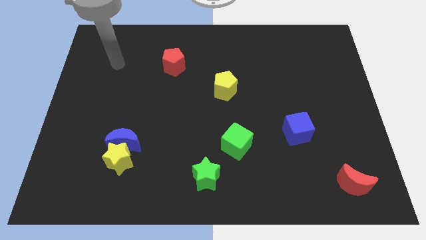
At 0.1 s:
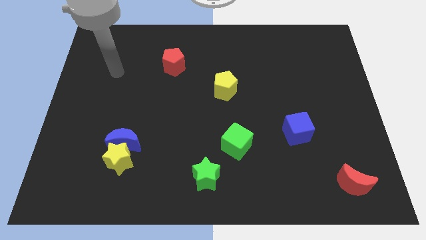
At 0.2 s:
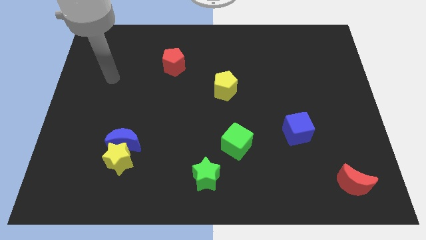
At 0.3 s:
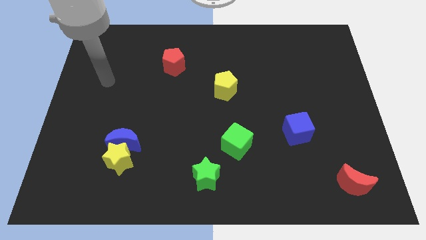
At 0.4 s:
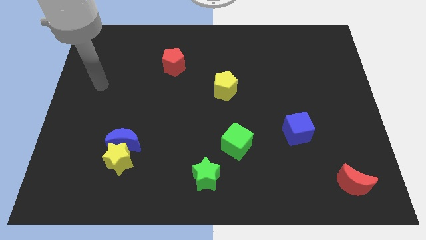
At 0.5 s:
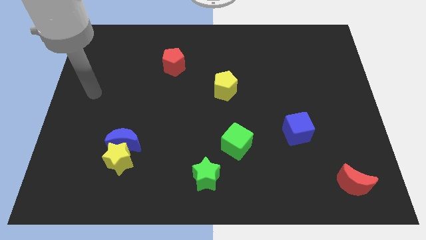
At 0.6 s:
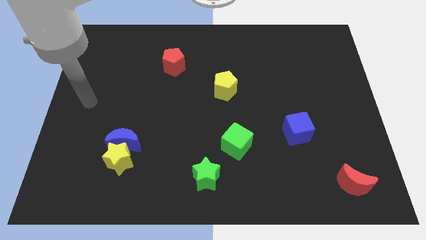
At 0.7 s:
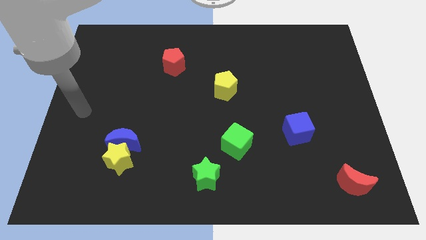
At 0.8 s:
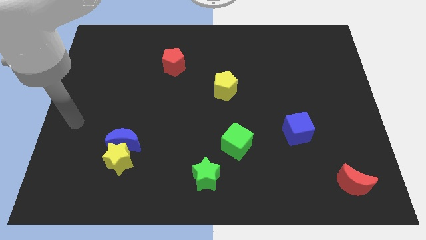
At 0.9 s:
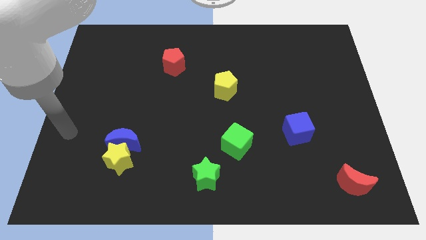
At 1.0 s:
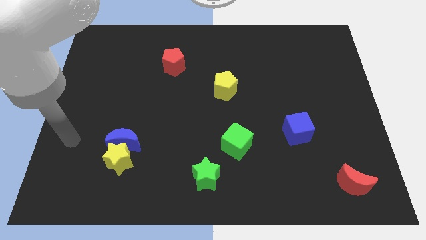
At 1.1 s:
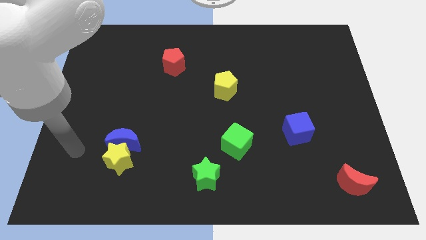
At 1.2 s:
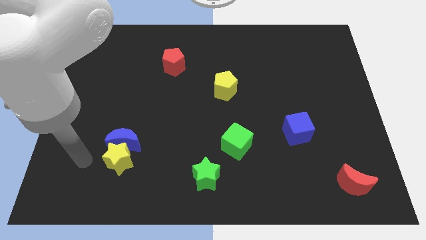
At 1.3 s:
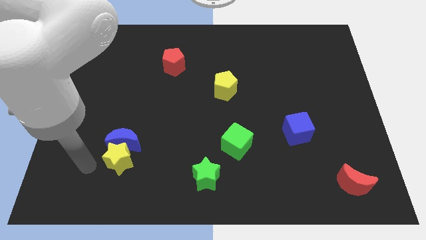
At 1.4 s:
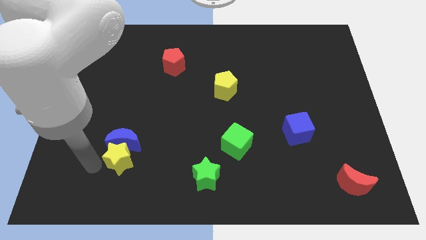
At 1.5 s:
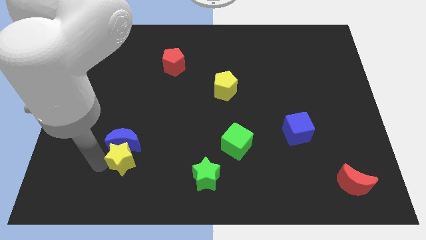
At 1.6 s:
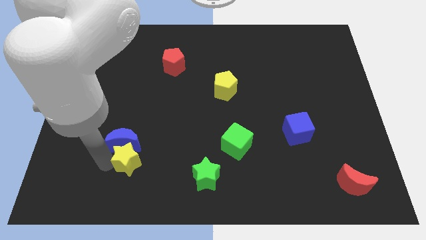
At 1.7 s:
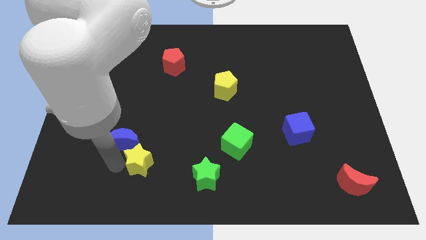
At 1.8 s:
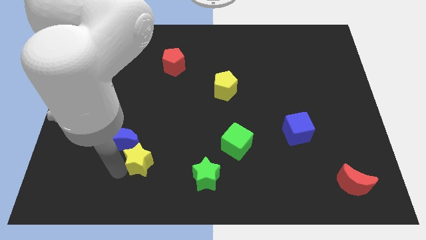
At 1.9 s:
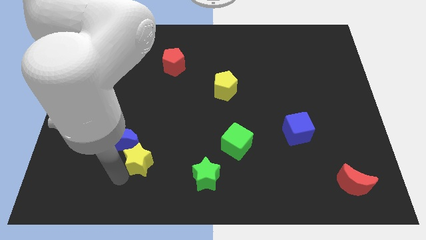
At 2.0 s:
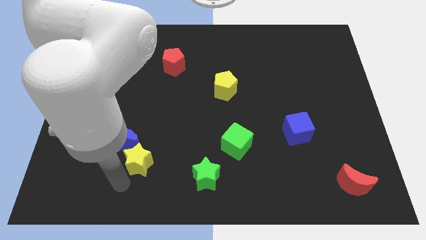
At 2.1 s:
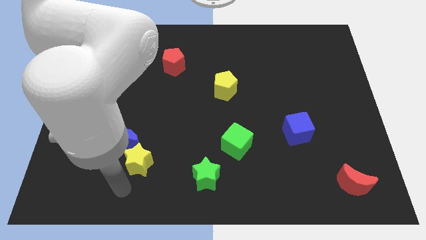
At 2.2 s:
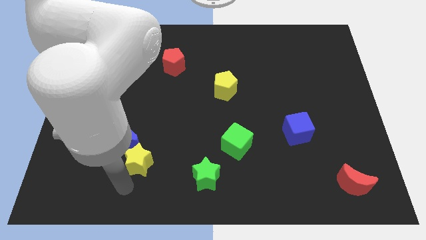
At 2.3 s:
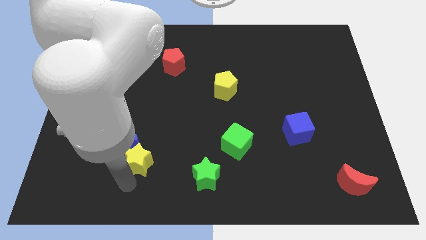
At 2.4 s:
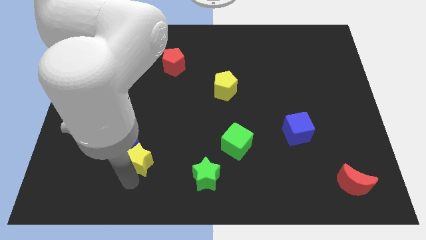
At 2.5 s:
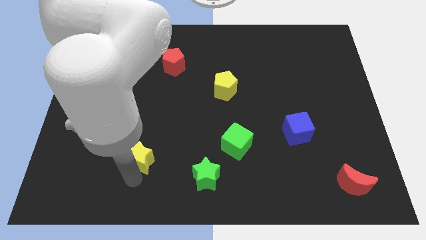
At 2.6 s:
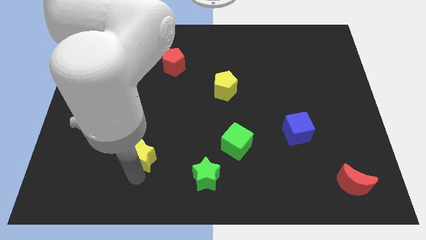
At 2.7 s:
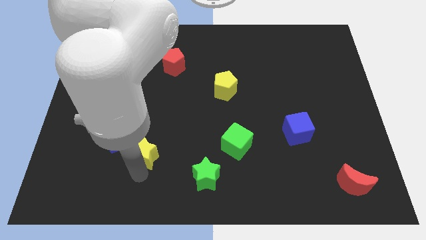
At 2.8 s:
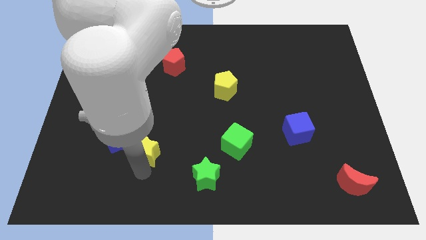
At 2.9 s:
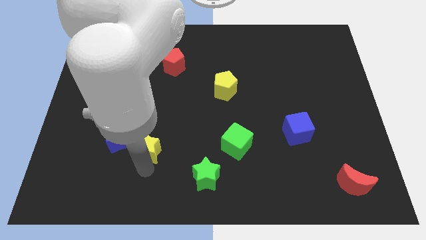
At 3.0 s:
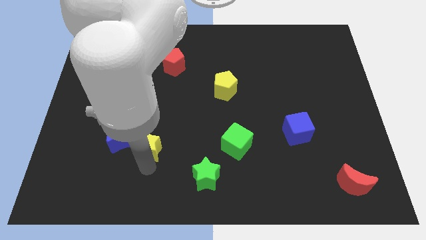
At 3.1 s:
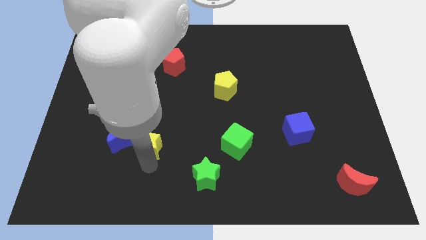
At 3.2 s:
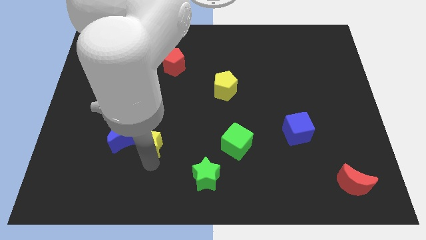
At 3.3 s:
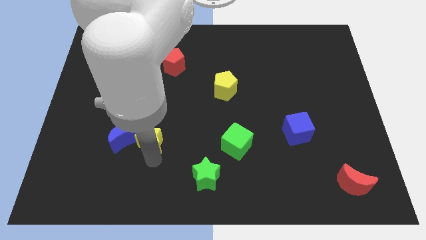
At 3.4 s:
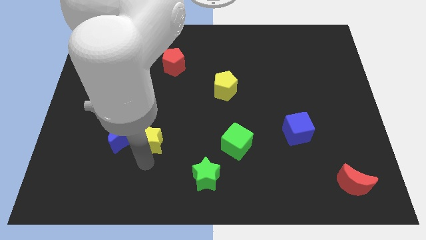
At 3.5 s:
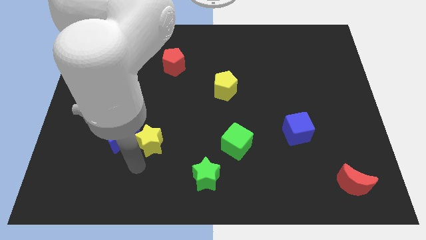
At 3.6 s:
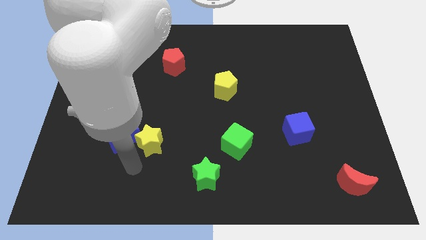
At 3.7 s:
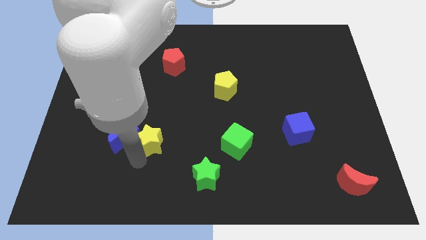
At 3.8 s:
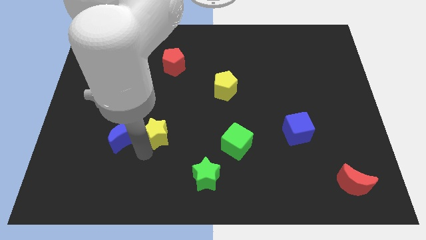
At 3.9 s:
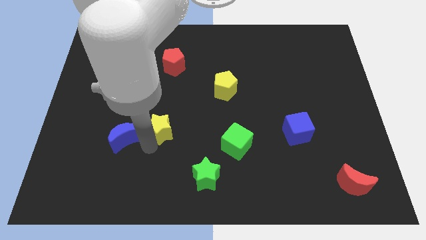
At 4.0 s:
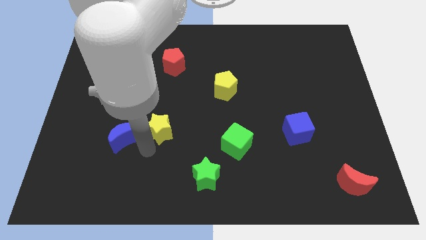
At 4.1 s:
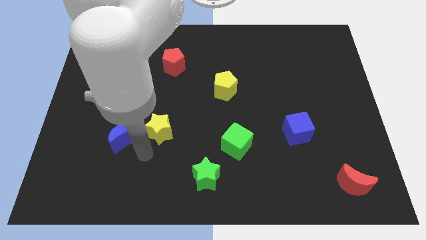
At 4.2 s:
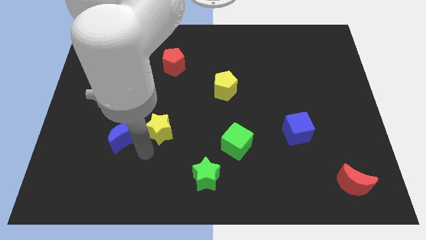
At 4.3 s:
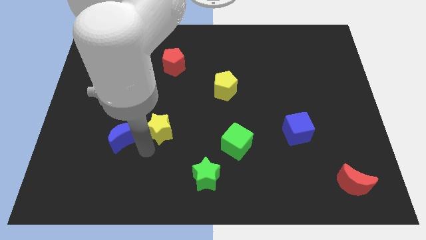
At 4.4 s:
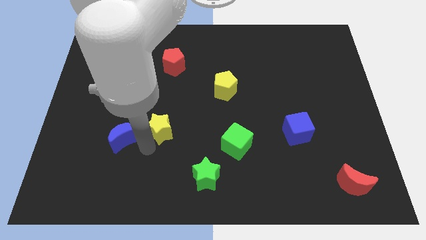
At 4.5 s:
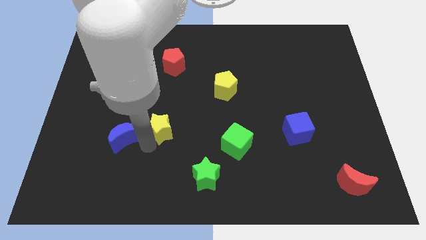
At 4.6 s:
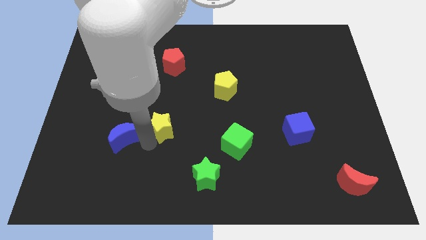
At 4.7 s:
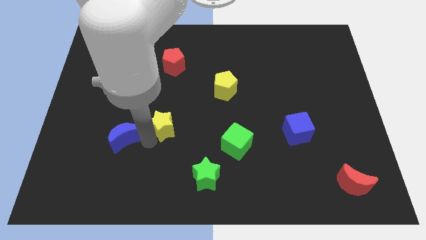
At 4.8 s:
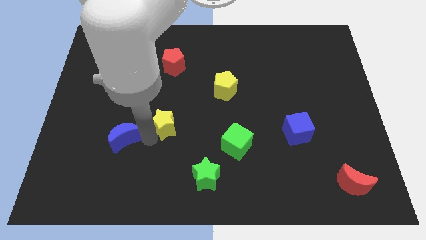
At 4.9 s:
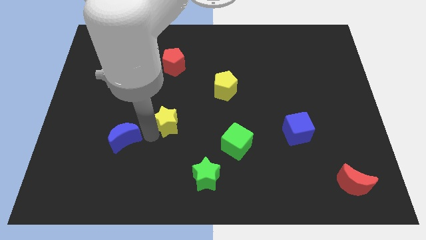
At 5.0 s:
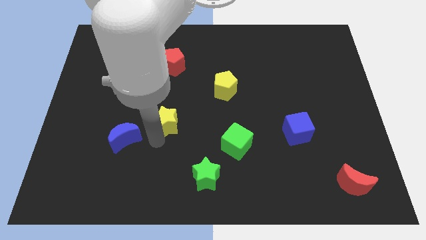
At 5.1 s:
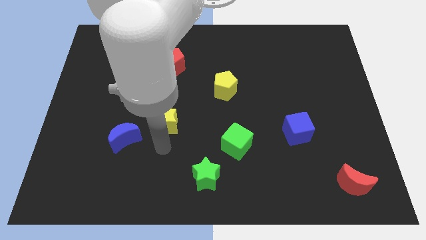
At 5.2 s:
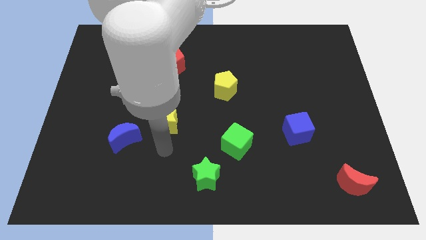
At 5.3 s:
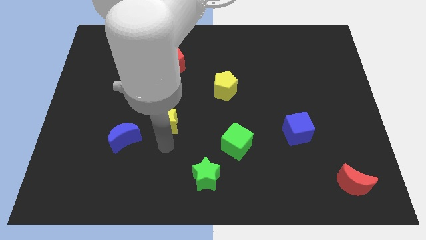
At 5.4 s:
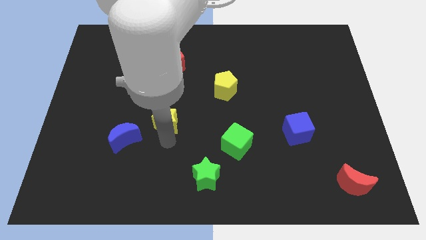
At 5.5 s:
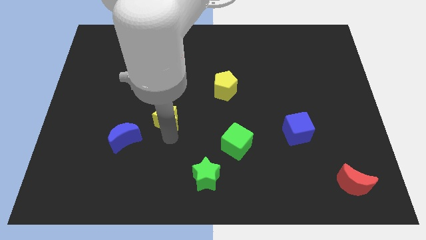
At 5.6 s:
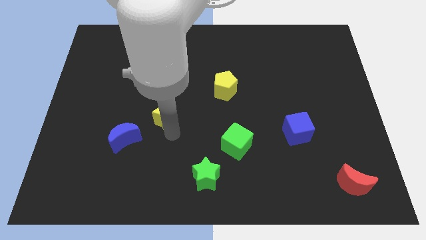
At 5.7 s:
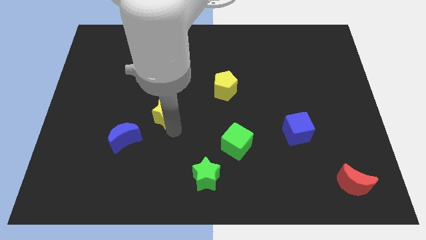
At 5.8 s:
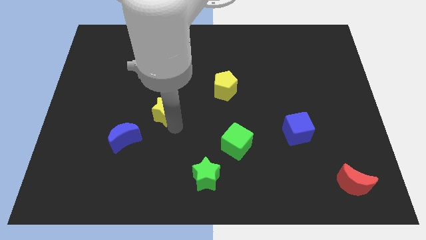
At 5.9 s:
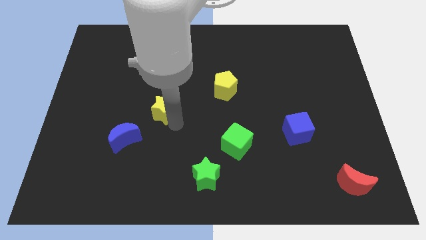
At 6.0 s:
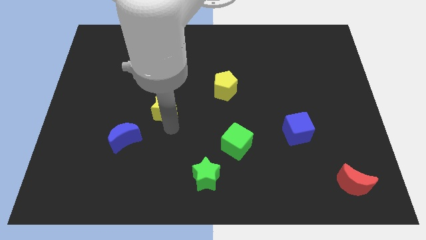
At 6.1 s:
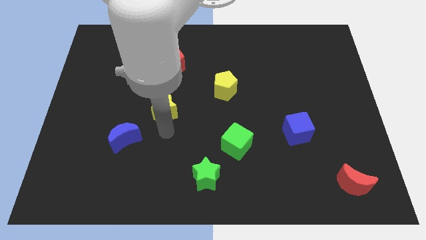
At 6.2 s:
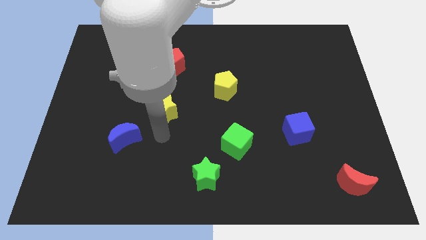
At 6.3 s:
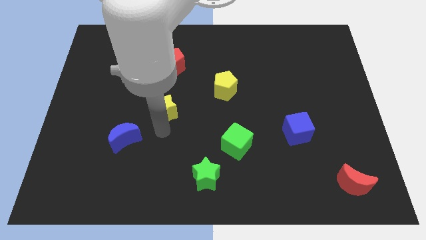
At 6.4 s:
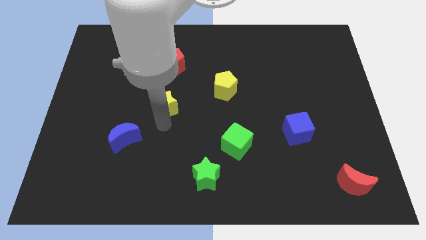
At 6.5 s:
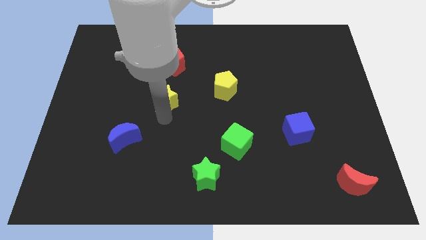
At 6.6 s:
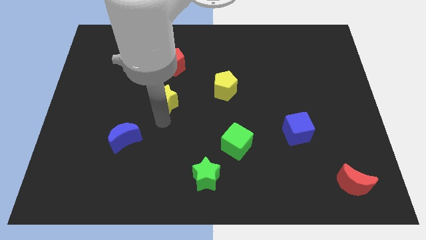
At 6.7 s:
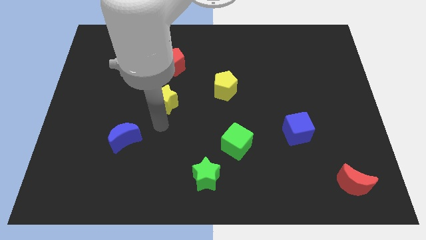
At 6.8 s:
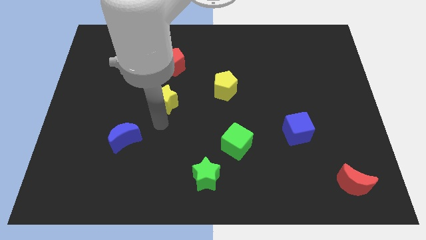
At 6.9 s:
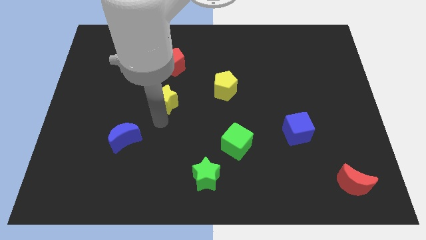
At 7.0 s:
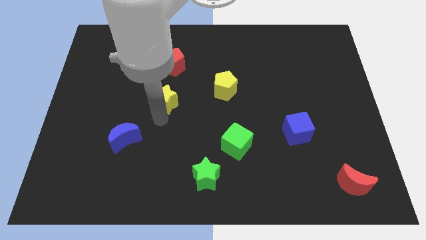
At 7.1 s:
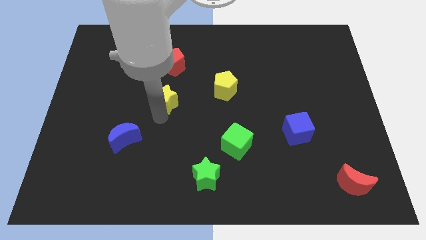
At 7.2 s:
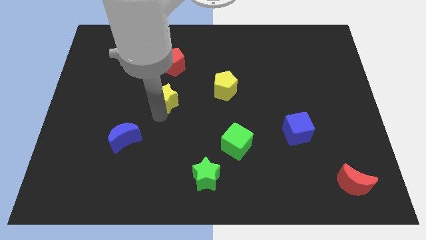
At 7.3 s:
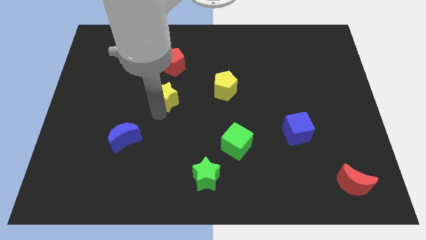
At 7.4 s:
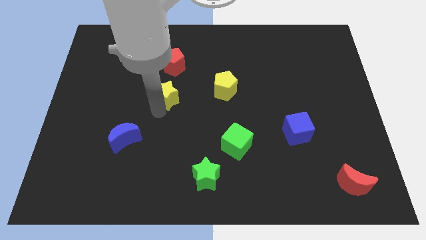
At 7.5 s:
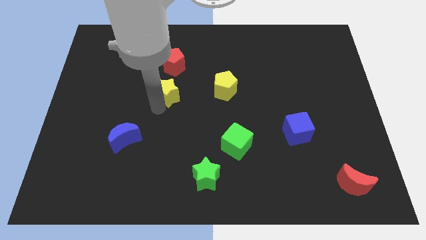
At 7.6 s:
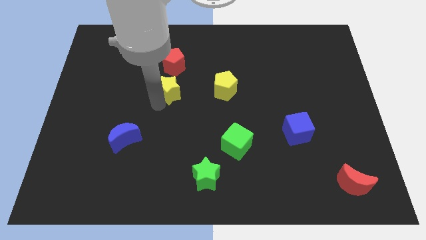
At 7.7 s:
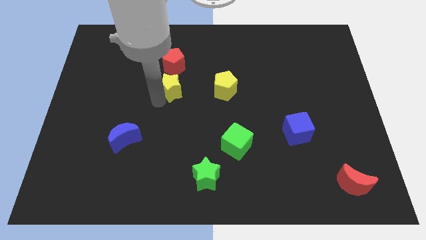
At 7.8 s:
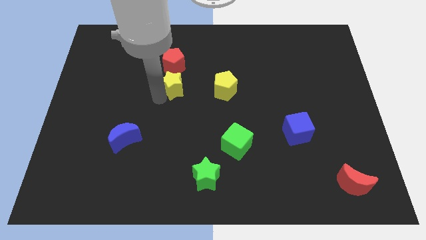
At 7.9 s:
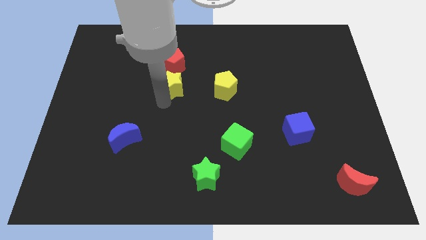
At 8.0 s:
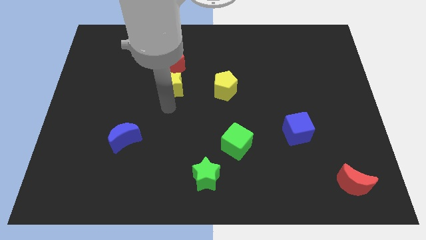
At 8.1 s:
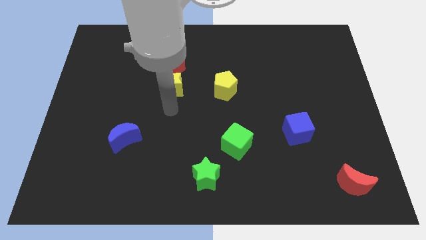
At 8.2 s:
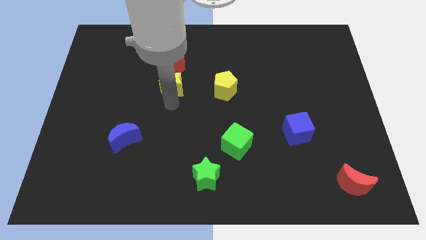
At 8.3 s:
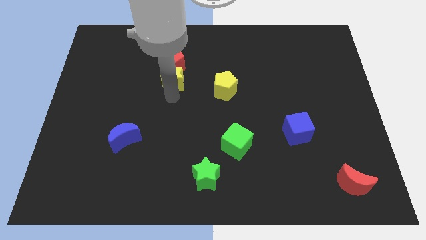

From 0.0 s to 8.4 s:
push the yellow star close to the red pentagon
